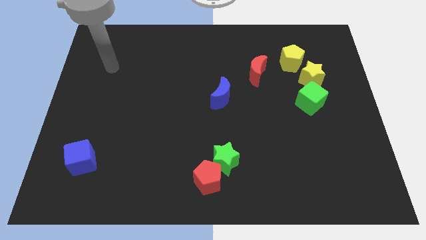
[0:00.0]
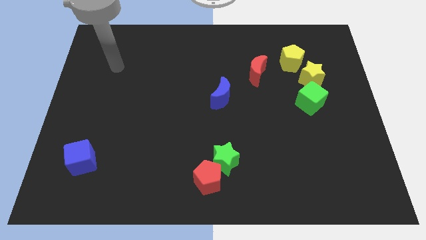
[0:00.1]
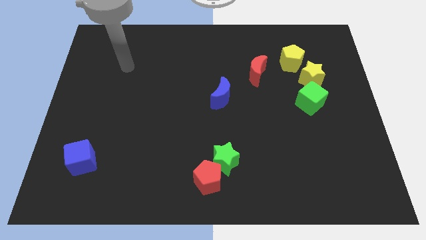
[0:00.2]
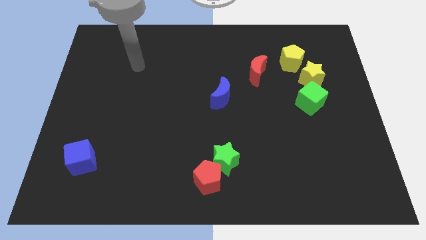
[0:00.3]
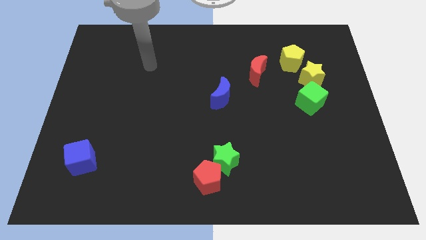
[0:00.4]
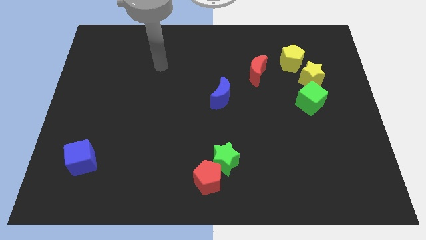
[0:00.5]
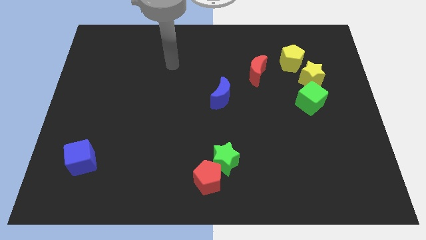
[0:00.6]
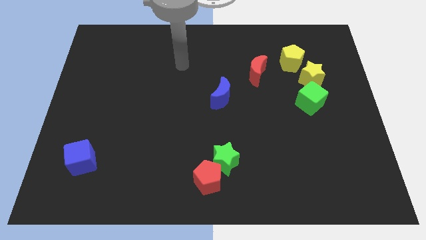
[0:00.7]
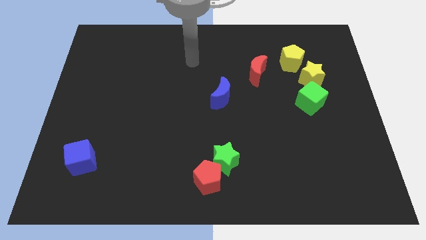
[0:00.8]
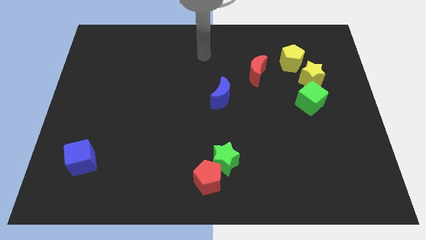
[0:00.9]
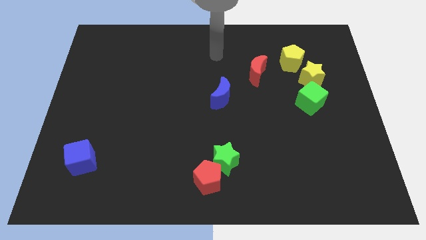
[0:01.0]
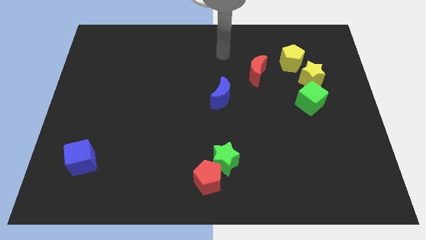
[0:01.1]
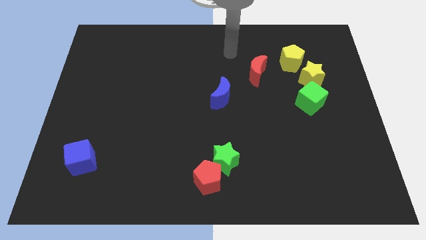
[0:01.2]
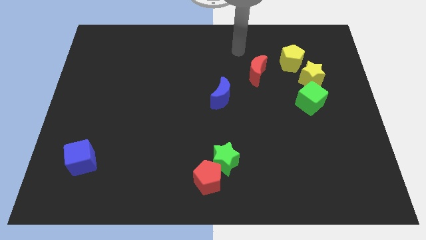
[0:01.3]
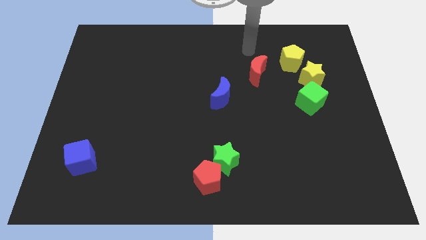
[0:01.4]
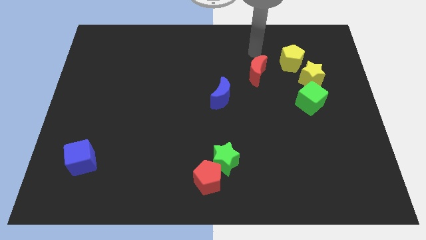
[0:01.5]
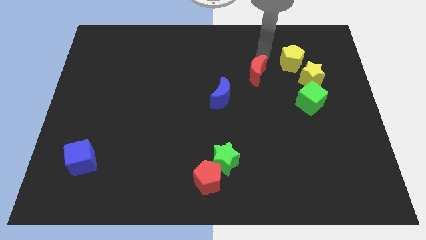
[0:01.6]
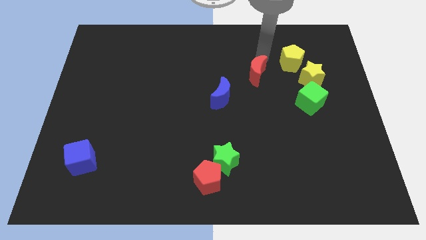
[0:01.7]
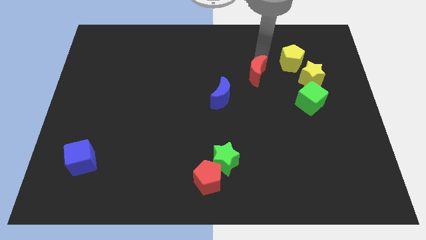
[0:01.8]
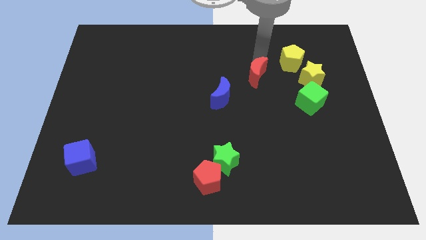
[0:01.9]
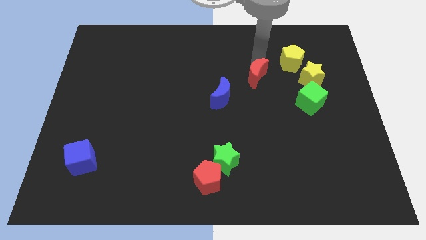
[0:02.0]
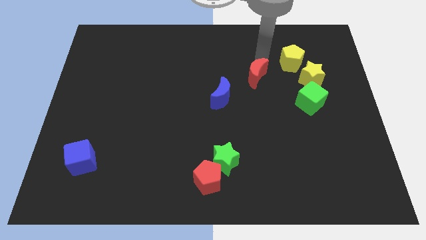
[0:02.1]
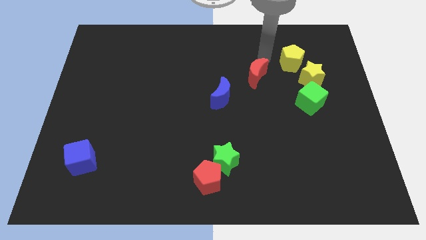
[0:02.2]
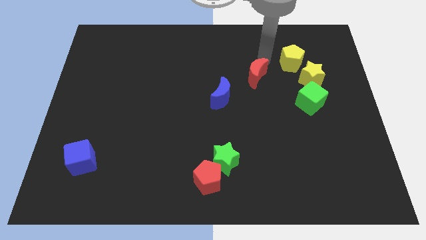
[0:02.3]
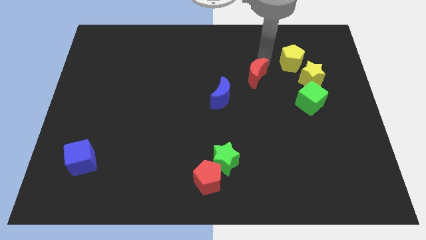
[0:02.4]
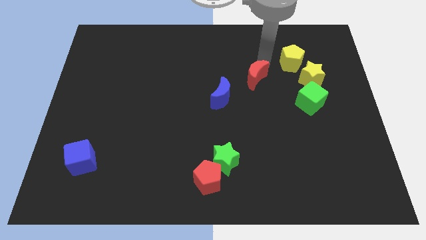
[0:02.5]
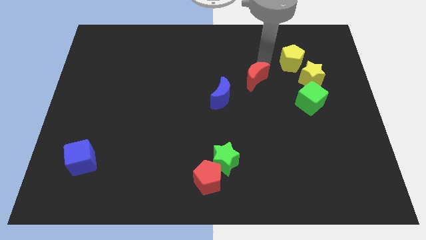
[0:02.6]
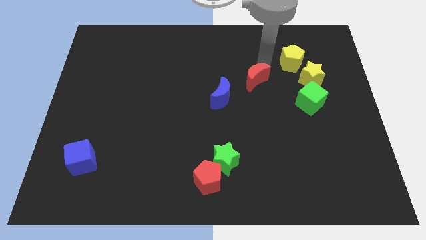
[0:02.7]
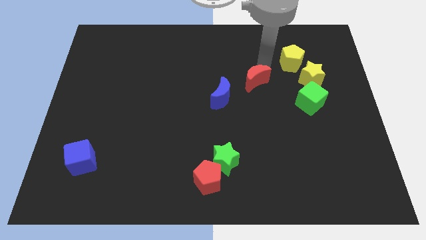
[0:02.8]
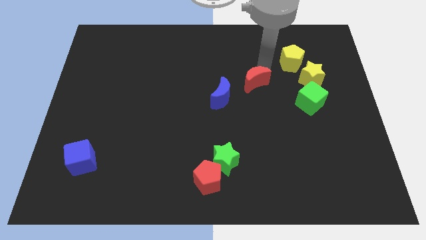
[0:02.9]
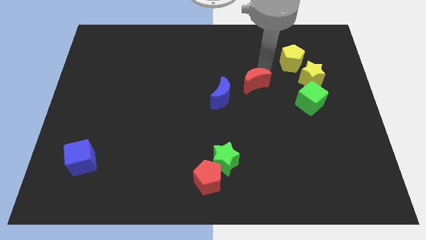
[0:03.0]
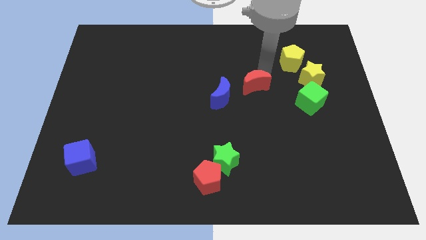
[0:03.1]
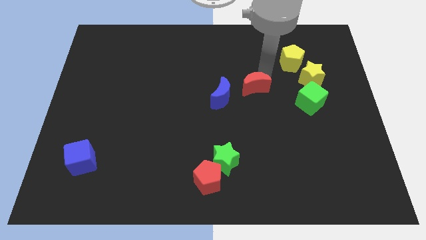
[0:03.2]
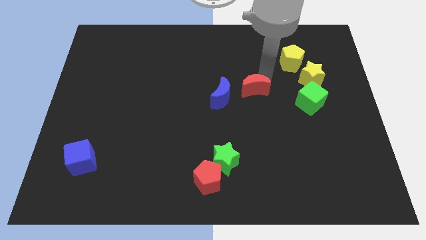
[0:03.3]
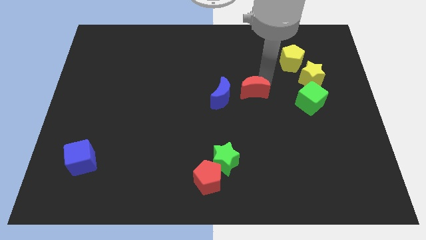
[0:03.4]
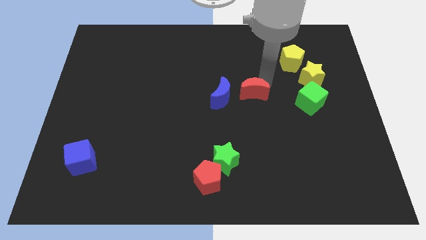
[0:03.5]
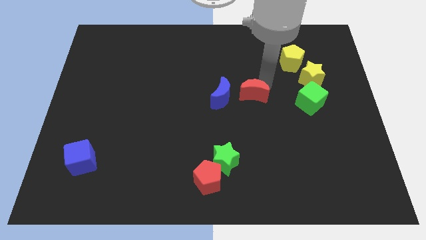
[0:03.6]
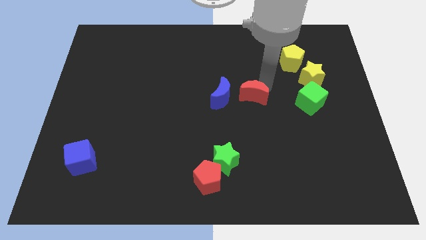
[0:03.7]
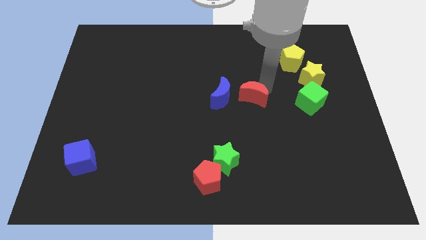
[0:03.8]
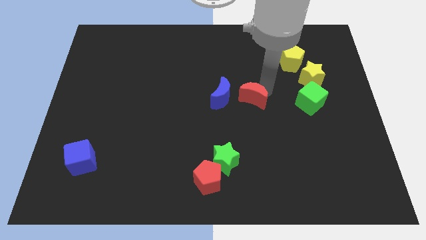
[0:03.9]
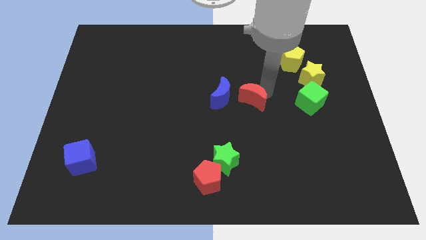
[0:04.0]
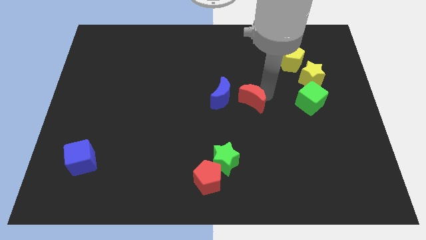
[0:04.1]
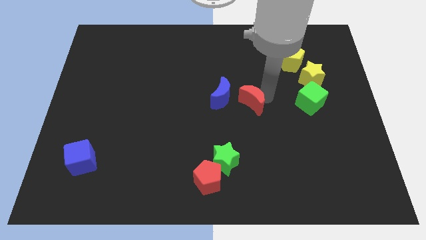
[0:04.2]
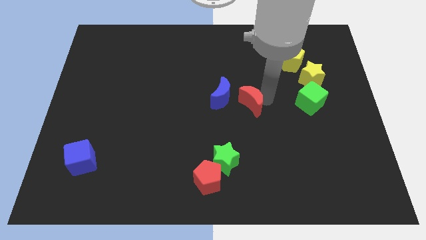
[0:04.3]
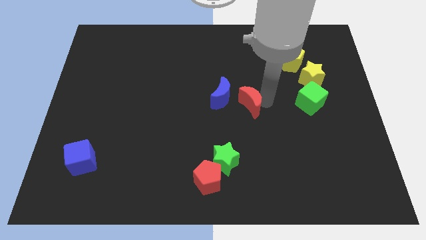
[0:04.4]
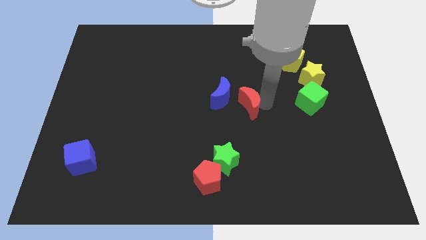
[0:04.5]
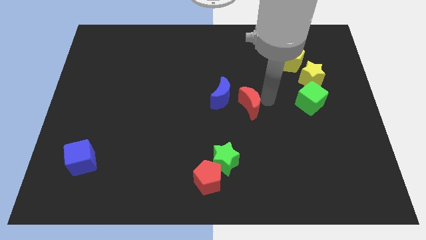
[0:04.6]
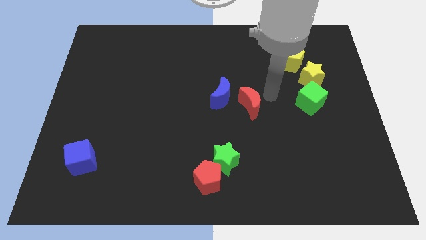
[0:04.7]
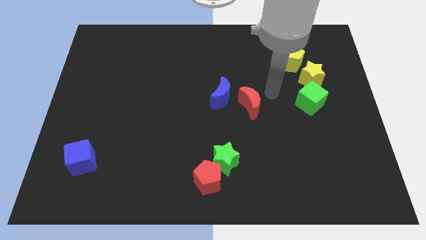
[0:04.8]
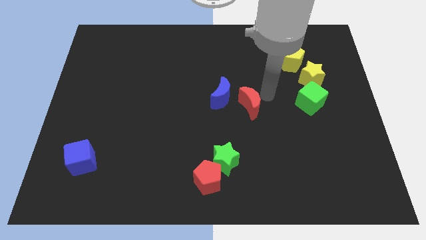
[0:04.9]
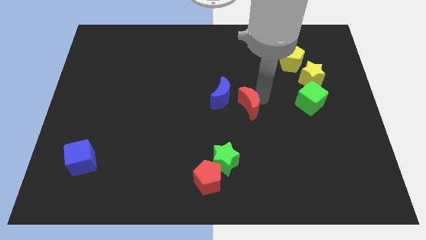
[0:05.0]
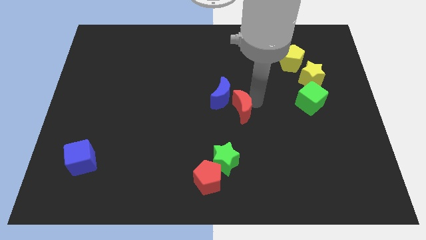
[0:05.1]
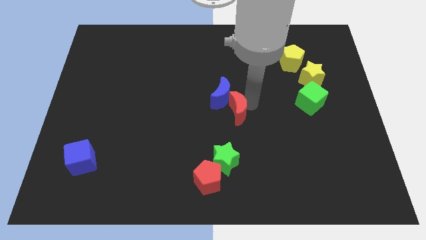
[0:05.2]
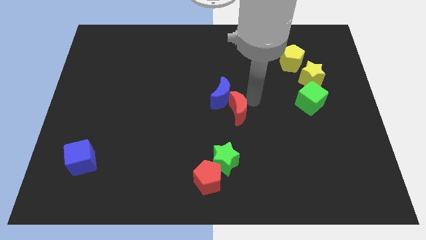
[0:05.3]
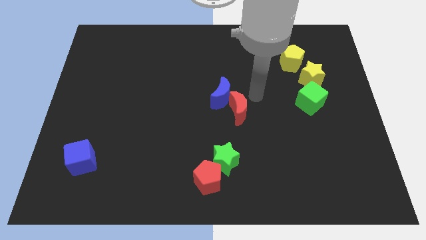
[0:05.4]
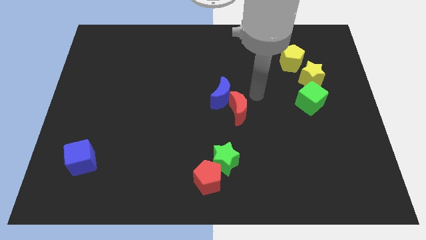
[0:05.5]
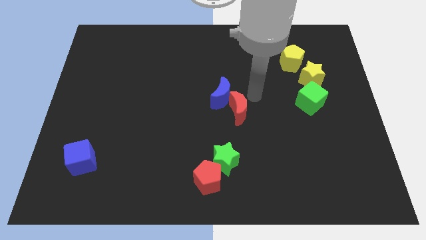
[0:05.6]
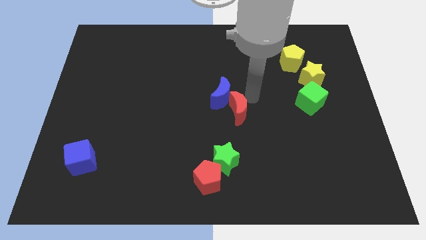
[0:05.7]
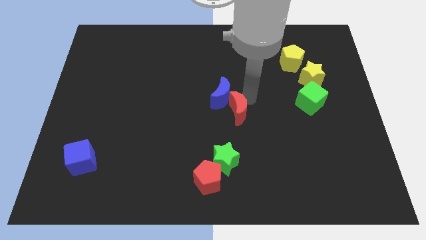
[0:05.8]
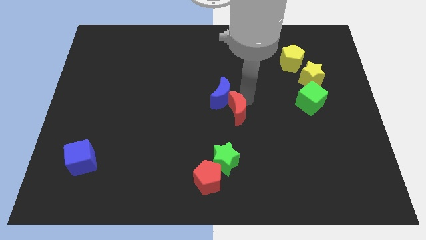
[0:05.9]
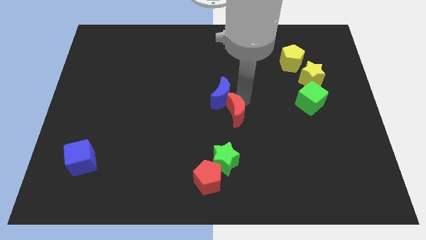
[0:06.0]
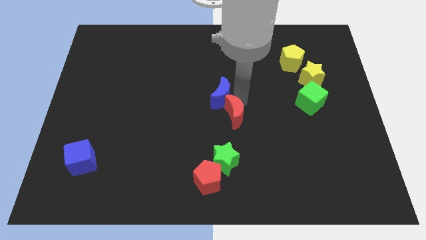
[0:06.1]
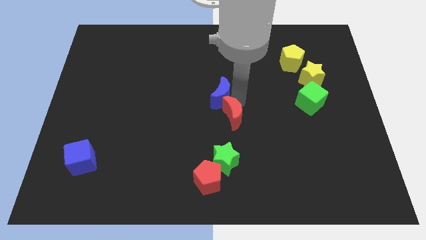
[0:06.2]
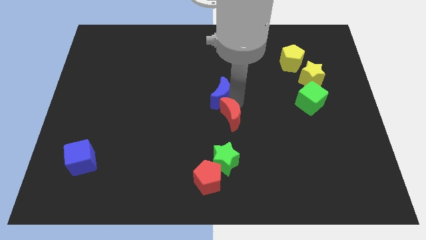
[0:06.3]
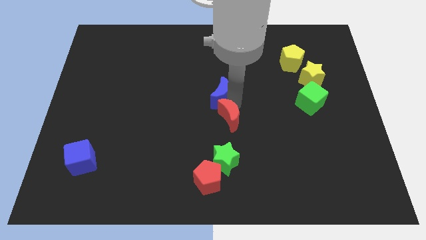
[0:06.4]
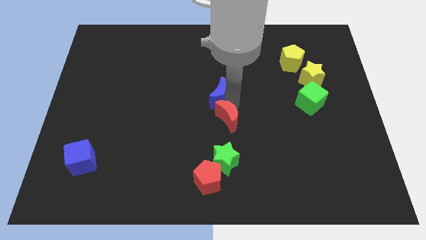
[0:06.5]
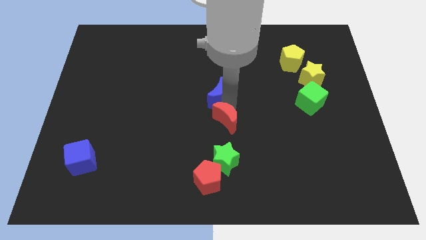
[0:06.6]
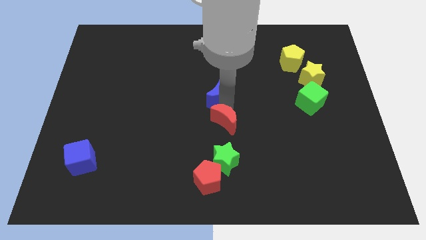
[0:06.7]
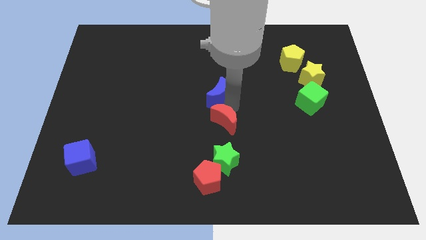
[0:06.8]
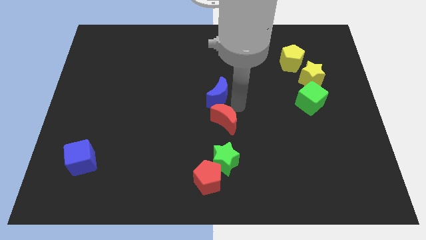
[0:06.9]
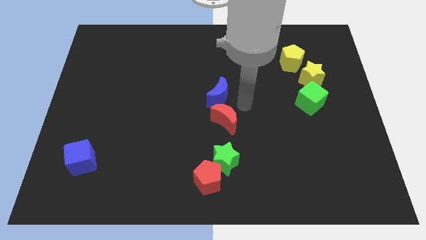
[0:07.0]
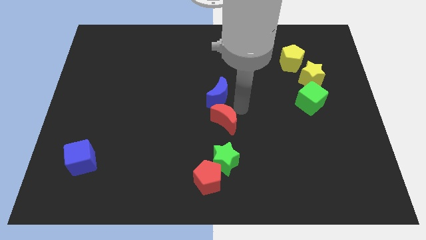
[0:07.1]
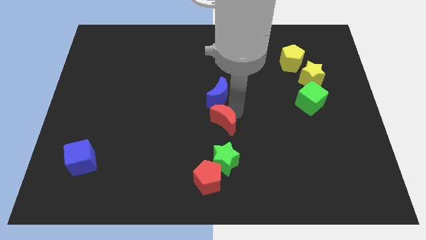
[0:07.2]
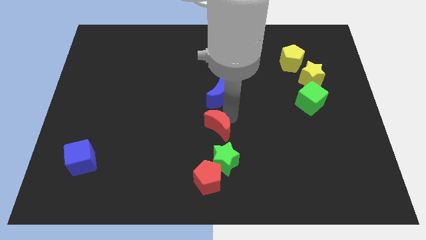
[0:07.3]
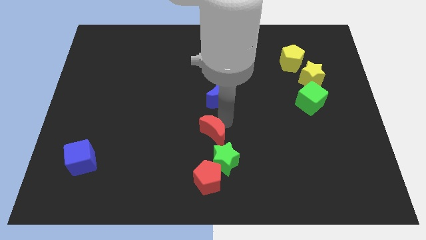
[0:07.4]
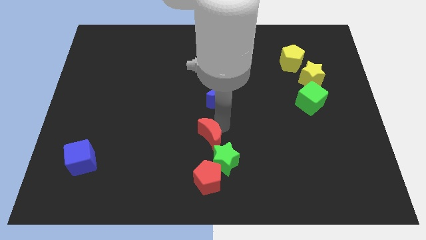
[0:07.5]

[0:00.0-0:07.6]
push the red moon downwards and then left
